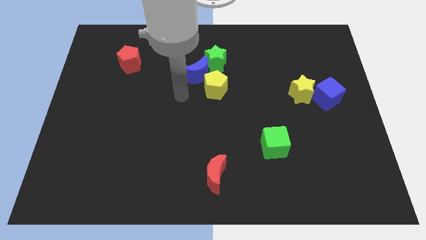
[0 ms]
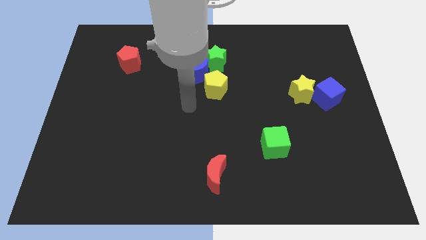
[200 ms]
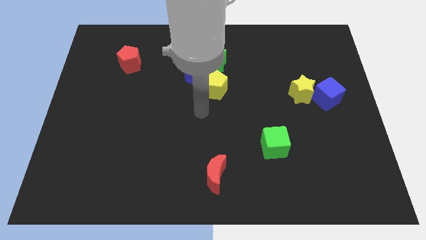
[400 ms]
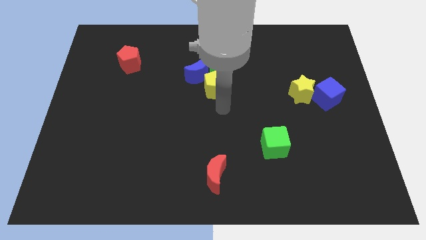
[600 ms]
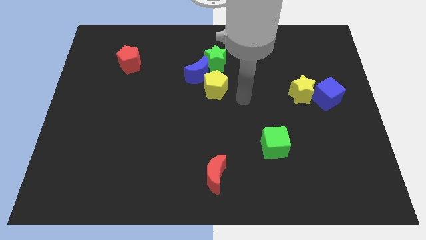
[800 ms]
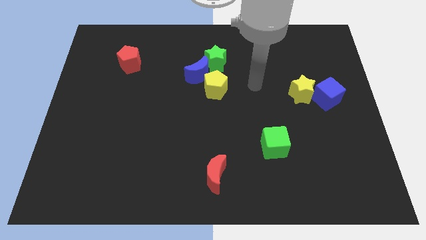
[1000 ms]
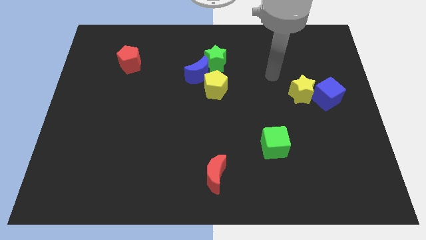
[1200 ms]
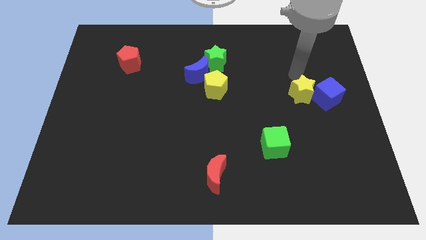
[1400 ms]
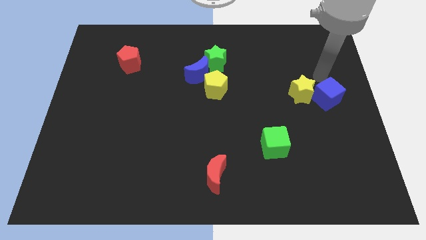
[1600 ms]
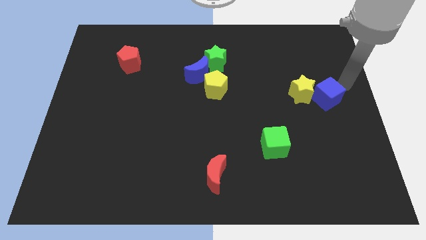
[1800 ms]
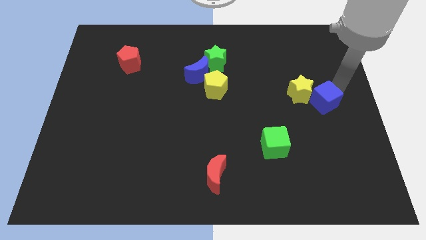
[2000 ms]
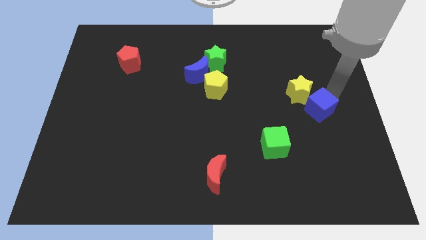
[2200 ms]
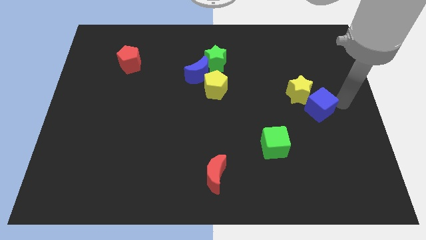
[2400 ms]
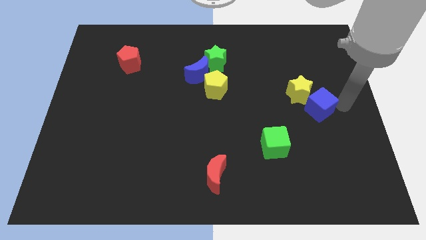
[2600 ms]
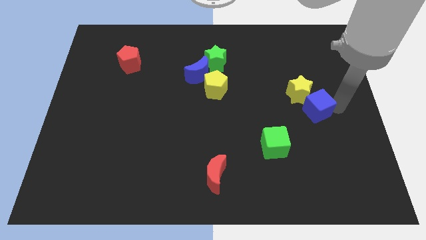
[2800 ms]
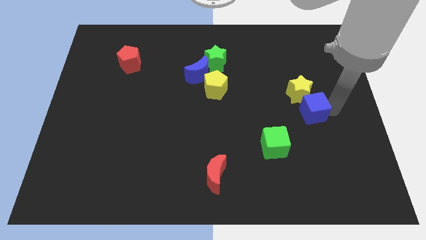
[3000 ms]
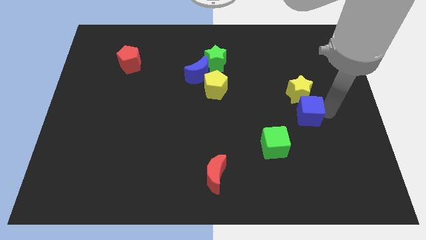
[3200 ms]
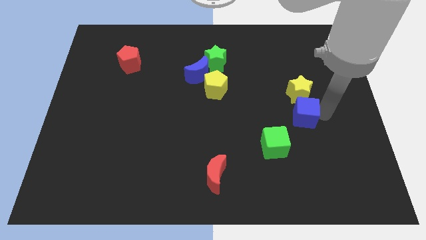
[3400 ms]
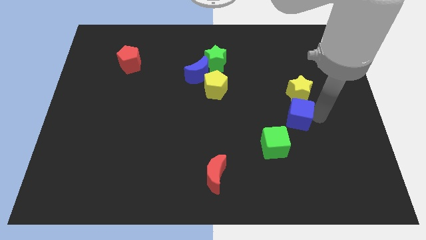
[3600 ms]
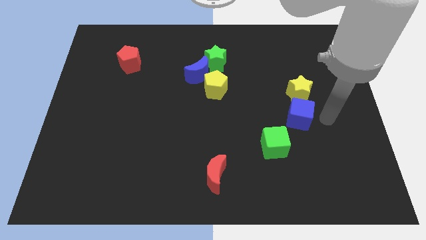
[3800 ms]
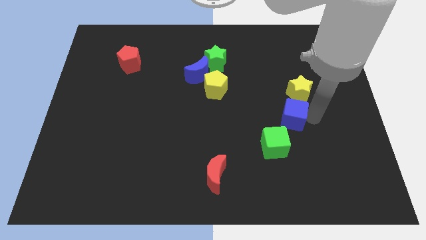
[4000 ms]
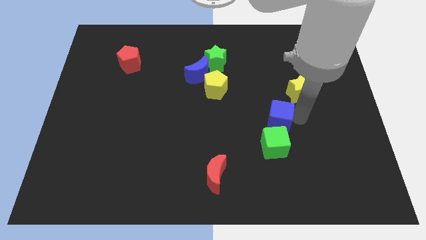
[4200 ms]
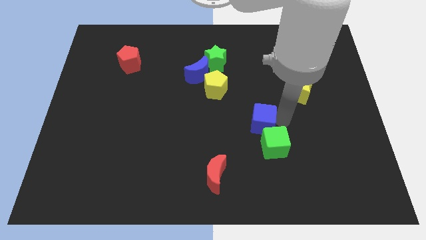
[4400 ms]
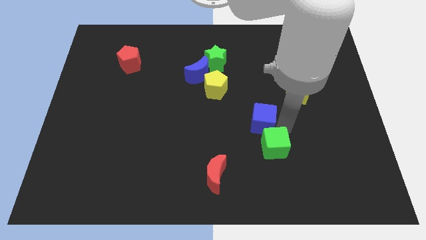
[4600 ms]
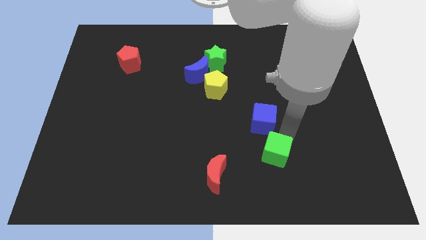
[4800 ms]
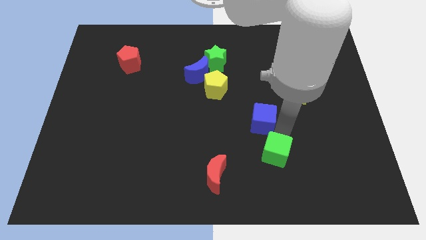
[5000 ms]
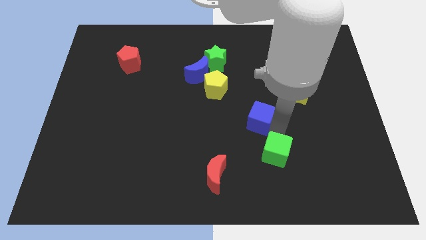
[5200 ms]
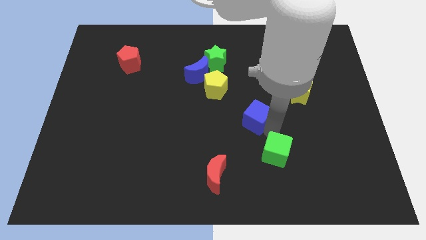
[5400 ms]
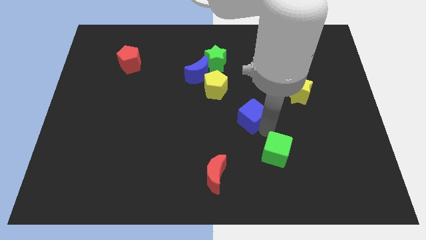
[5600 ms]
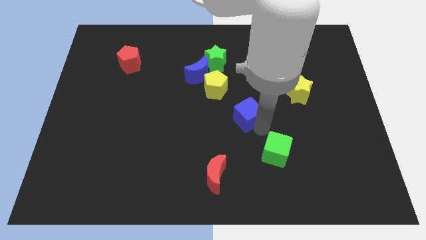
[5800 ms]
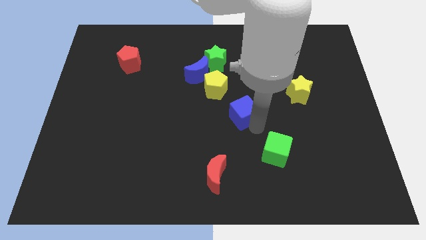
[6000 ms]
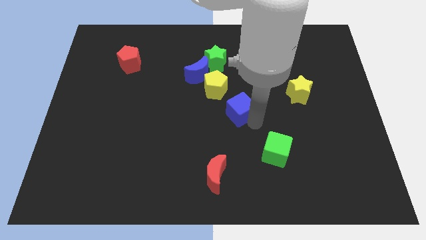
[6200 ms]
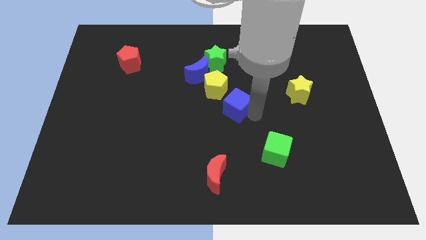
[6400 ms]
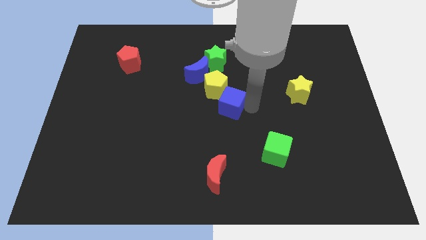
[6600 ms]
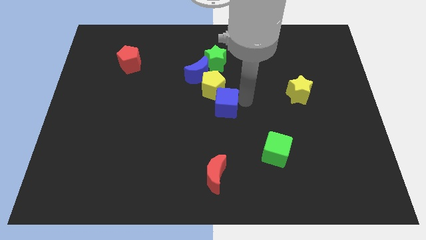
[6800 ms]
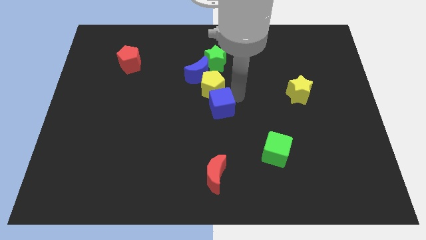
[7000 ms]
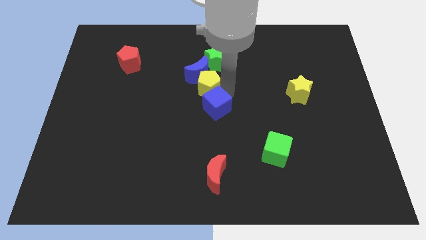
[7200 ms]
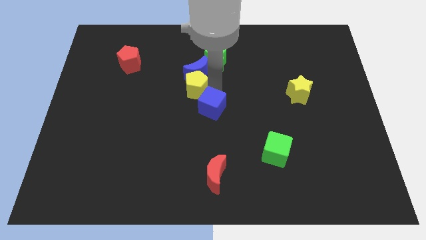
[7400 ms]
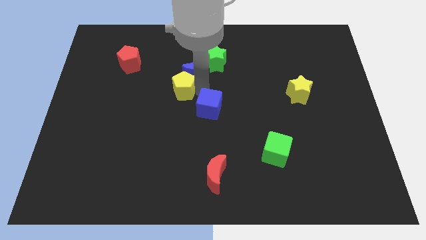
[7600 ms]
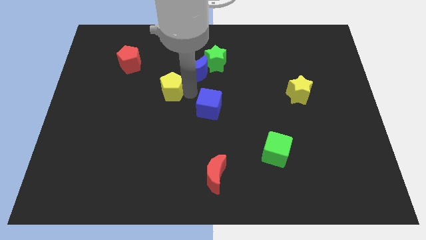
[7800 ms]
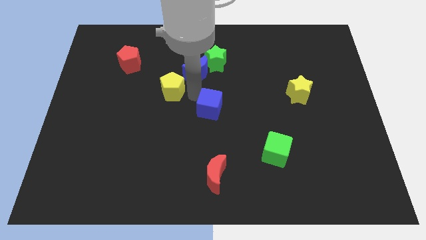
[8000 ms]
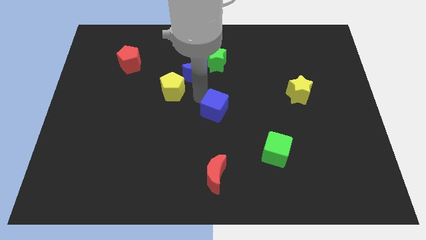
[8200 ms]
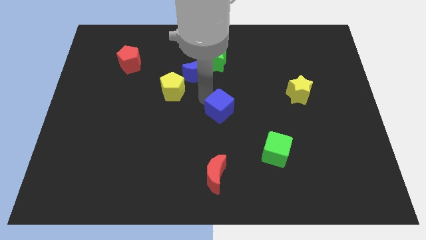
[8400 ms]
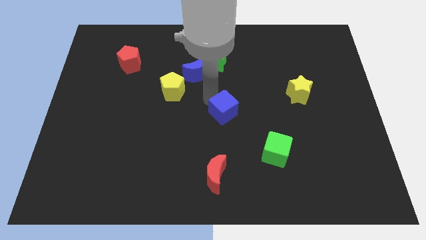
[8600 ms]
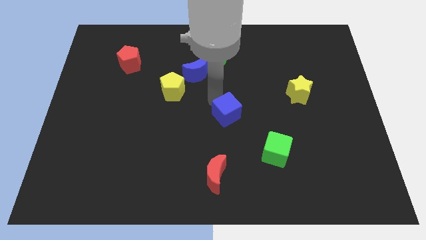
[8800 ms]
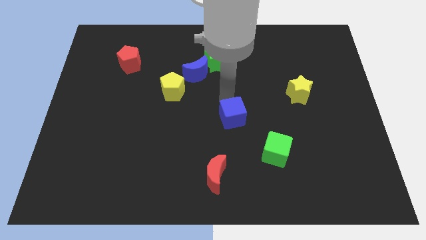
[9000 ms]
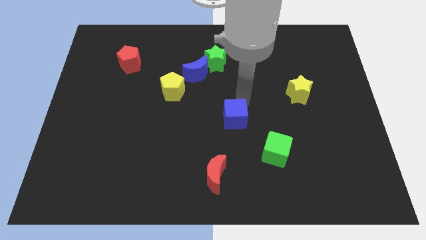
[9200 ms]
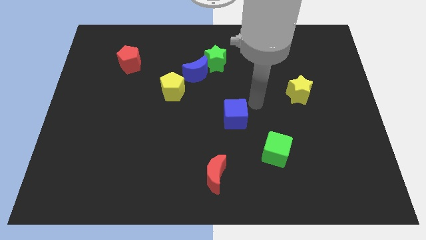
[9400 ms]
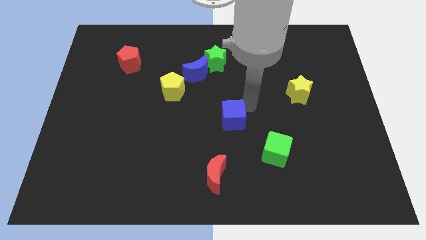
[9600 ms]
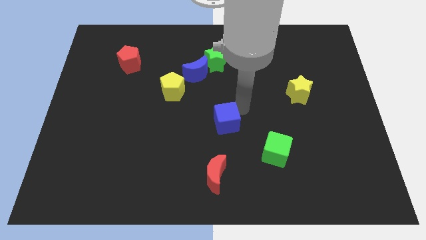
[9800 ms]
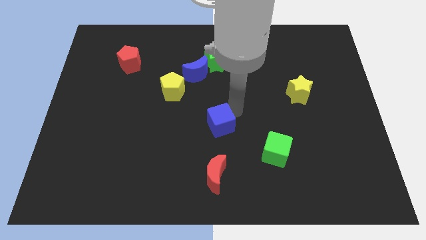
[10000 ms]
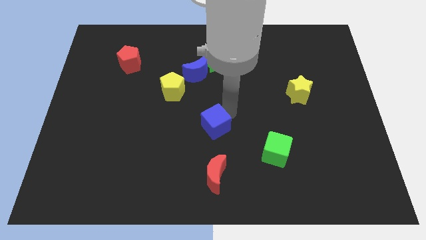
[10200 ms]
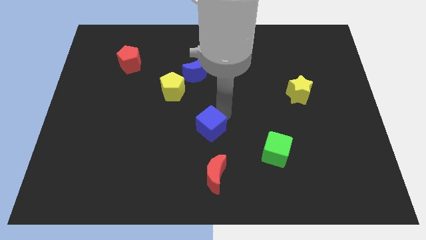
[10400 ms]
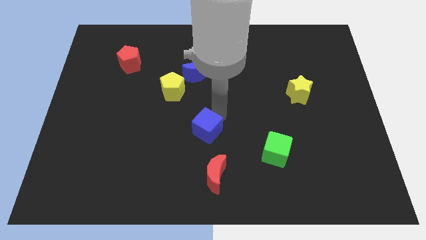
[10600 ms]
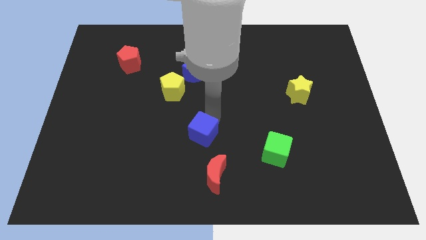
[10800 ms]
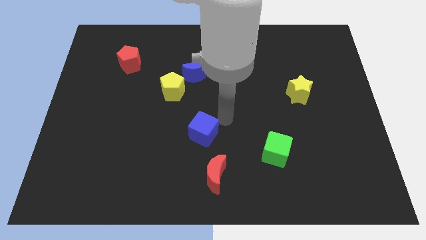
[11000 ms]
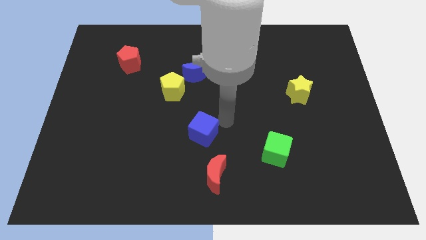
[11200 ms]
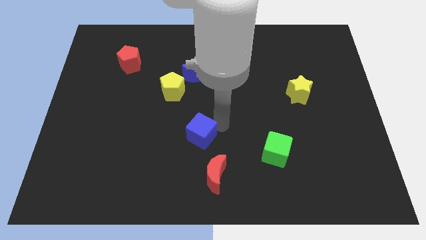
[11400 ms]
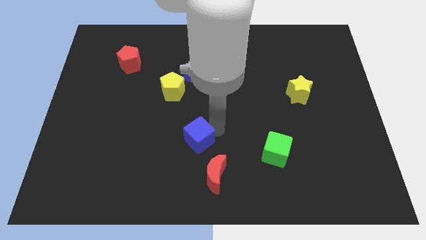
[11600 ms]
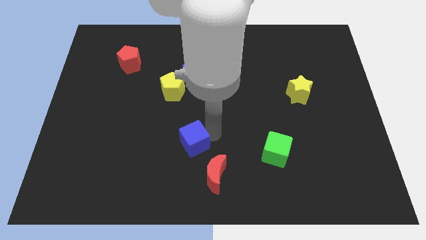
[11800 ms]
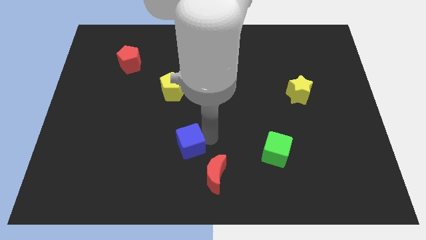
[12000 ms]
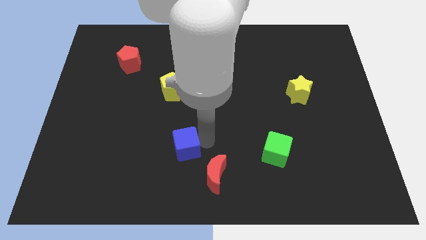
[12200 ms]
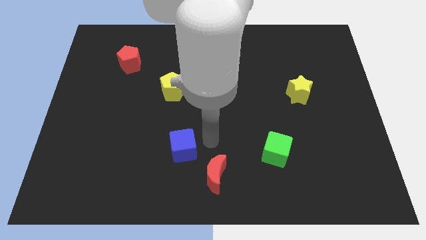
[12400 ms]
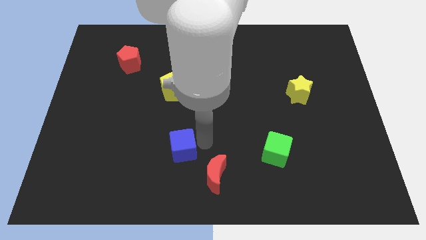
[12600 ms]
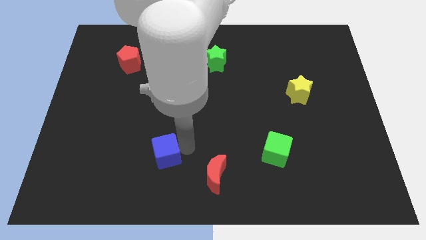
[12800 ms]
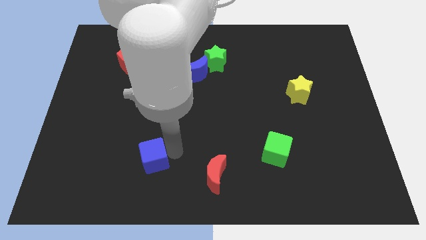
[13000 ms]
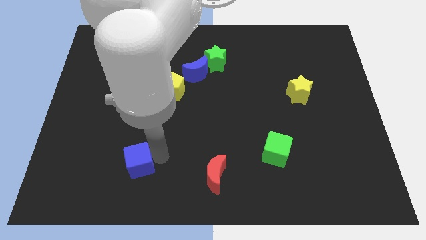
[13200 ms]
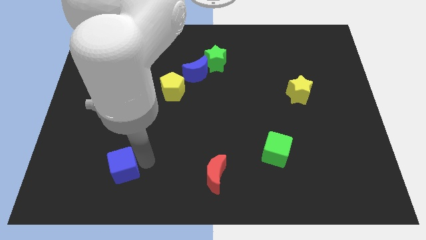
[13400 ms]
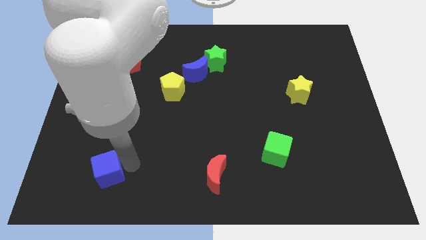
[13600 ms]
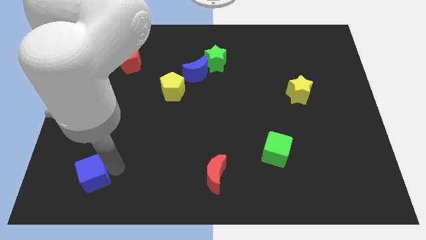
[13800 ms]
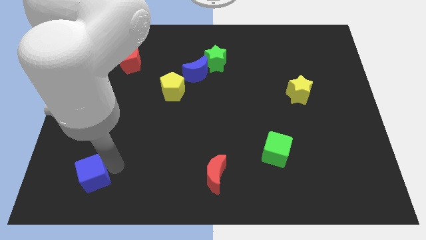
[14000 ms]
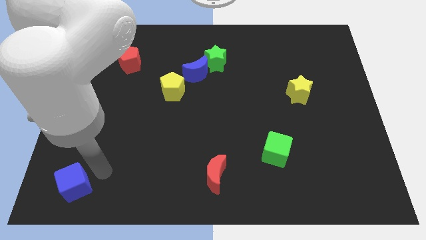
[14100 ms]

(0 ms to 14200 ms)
move the blue cube to the bottom left corner
